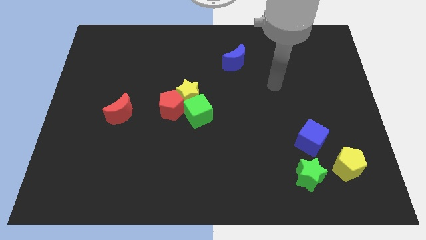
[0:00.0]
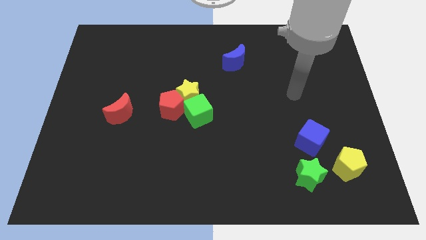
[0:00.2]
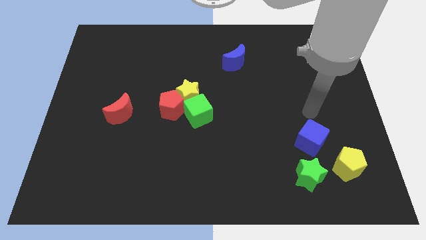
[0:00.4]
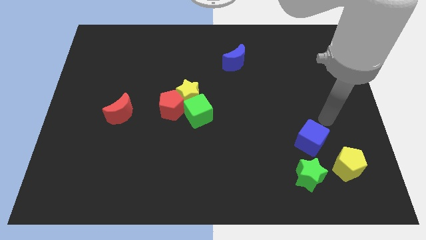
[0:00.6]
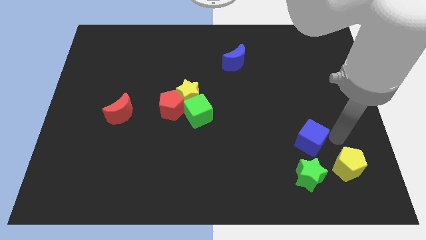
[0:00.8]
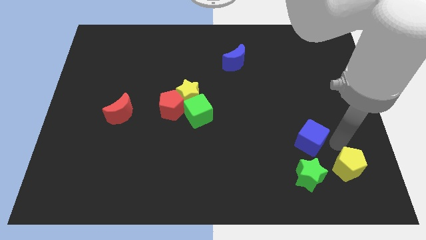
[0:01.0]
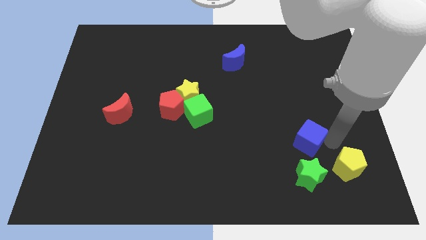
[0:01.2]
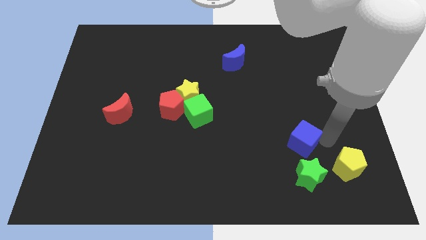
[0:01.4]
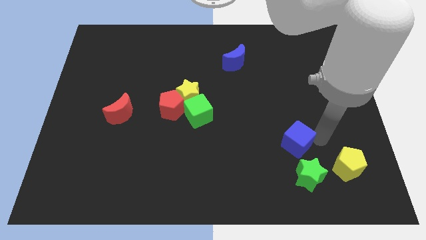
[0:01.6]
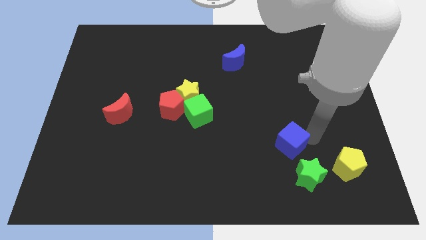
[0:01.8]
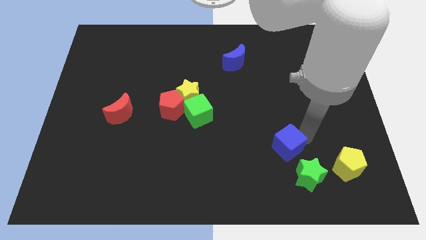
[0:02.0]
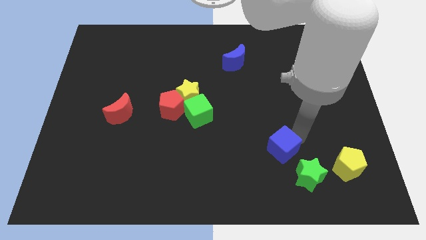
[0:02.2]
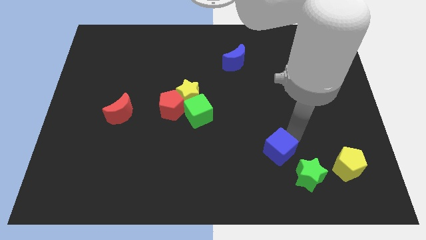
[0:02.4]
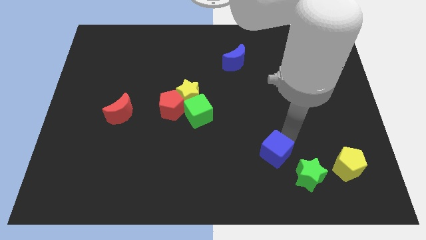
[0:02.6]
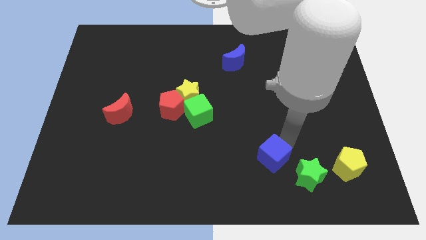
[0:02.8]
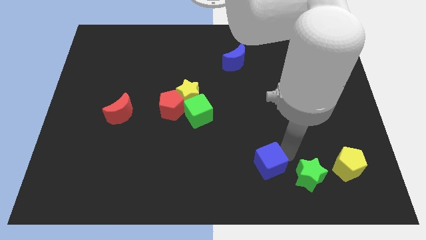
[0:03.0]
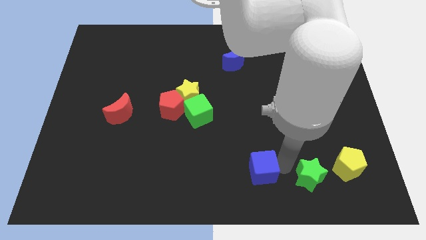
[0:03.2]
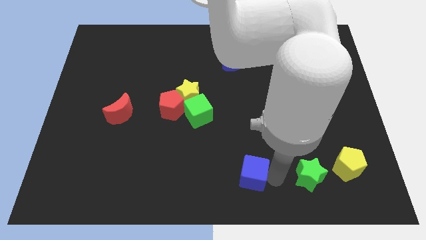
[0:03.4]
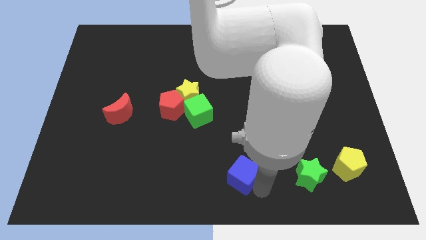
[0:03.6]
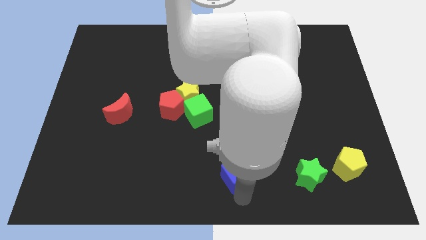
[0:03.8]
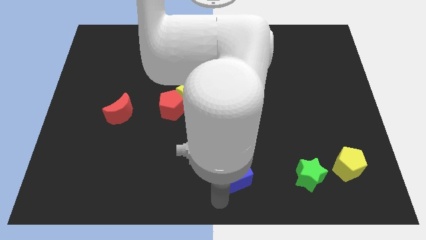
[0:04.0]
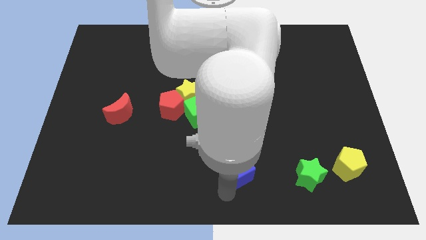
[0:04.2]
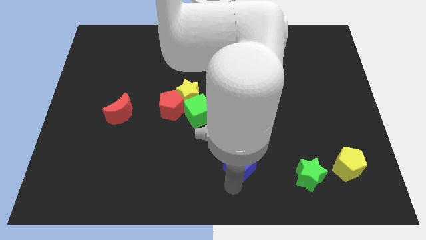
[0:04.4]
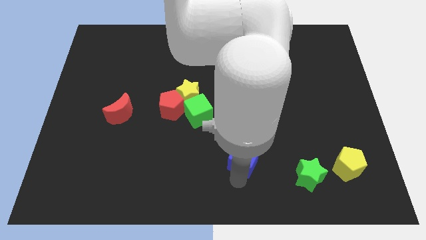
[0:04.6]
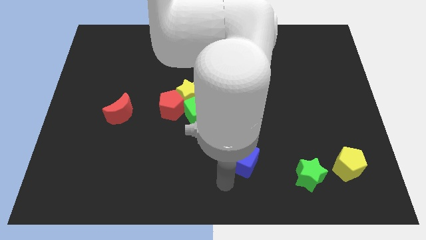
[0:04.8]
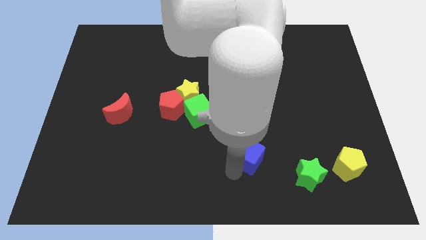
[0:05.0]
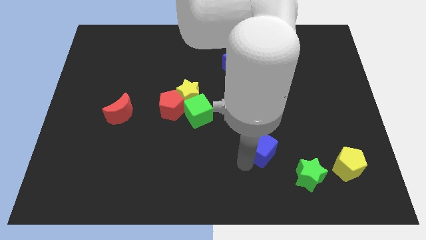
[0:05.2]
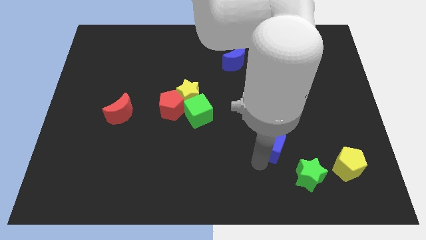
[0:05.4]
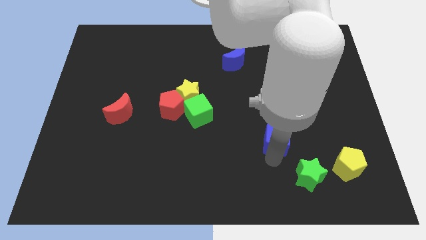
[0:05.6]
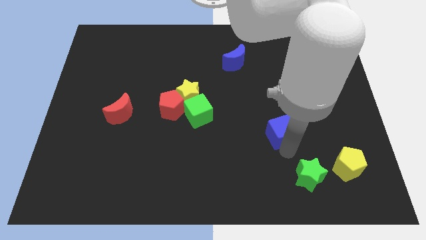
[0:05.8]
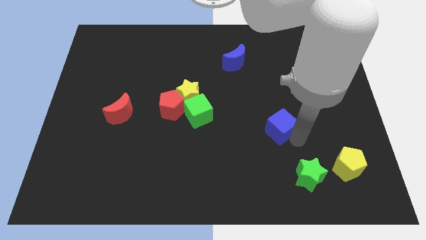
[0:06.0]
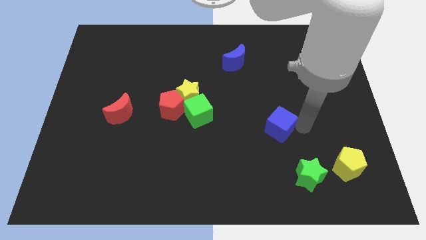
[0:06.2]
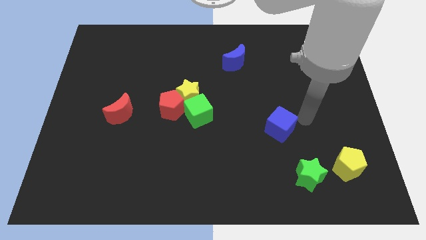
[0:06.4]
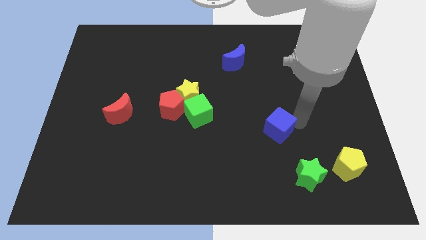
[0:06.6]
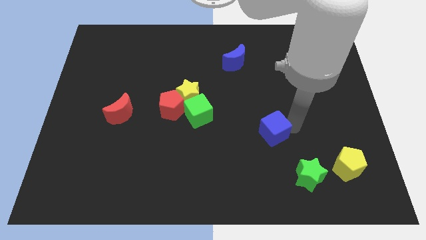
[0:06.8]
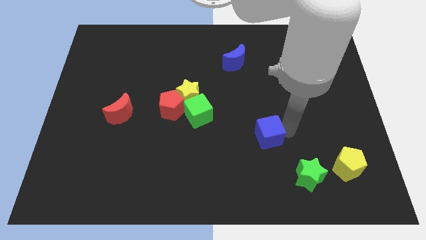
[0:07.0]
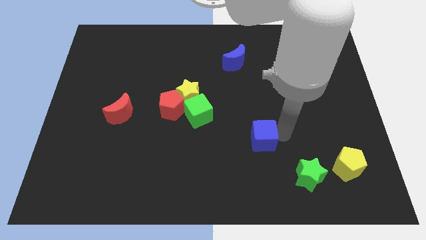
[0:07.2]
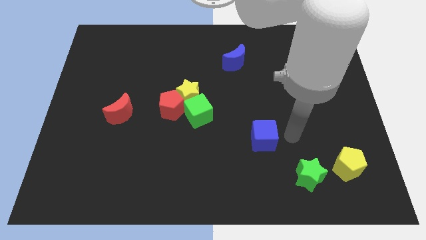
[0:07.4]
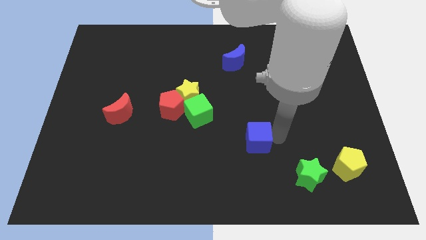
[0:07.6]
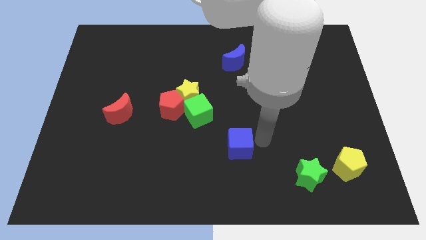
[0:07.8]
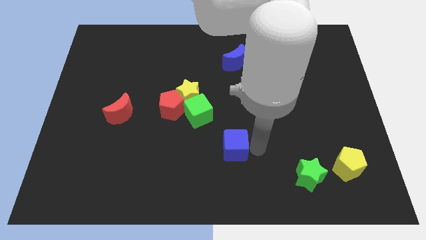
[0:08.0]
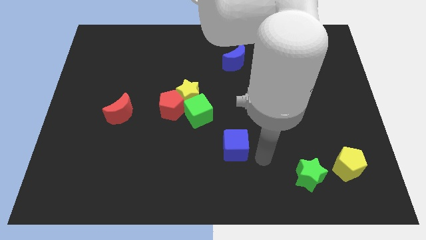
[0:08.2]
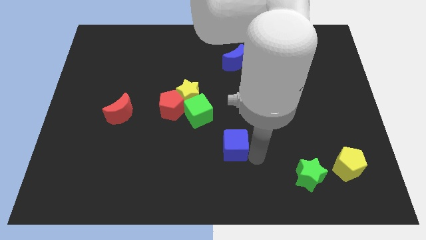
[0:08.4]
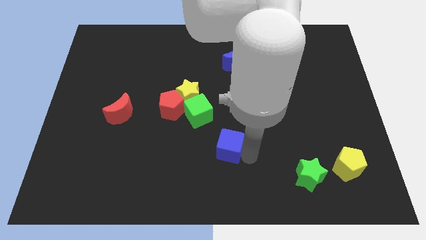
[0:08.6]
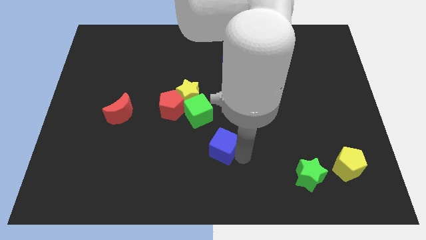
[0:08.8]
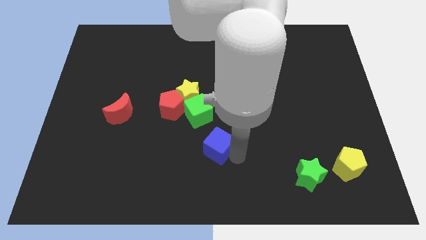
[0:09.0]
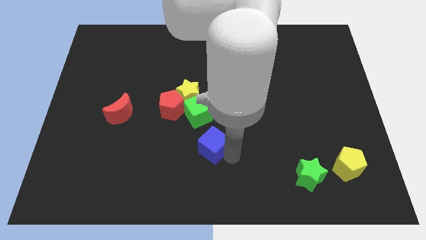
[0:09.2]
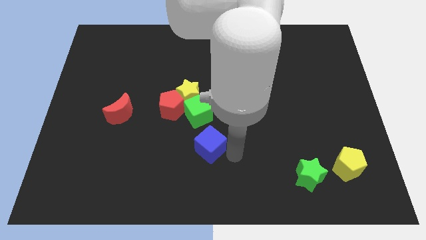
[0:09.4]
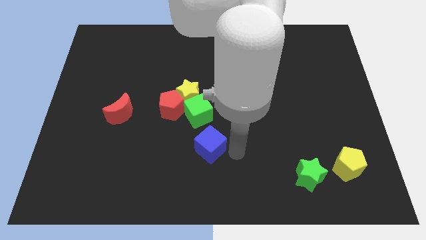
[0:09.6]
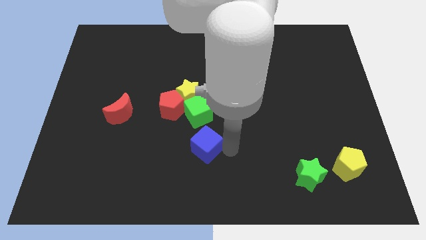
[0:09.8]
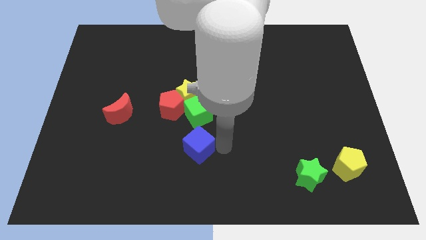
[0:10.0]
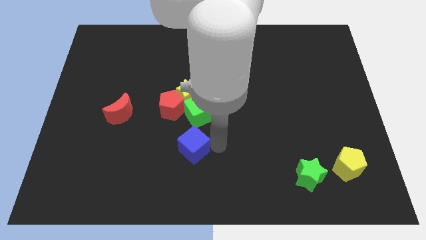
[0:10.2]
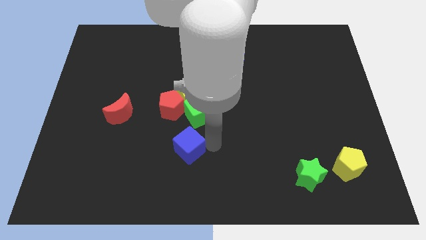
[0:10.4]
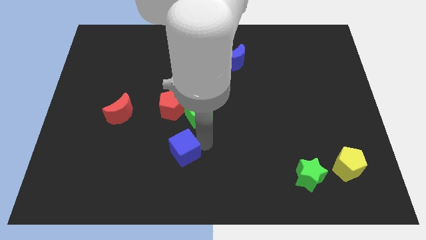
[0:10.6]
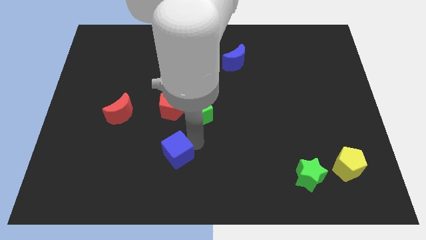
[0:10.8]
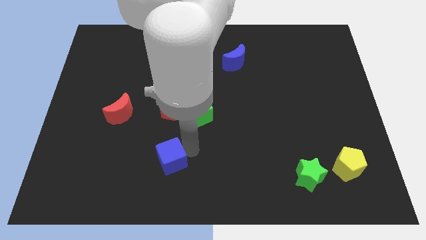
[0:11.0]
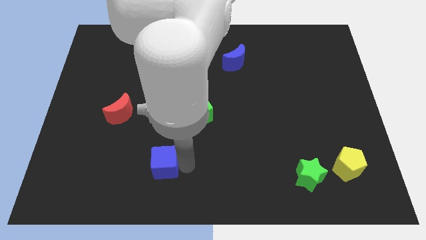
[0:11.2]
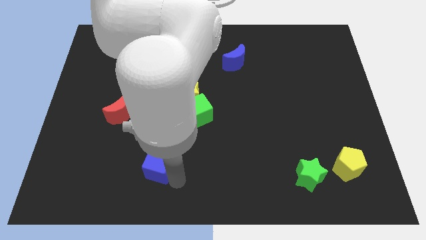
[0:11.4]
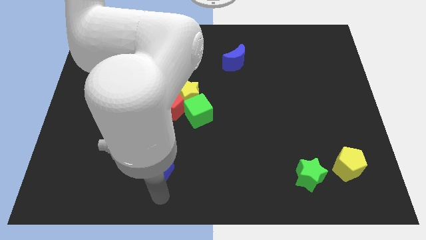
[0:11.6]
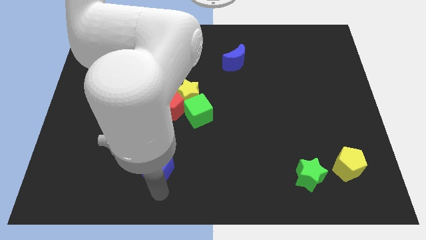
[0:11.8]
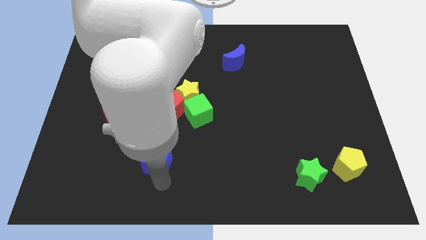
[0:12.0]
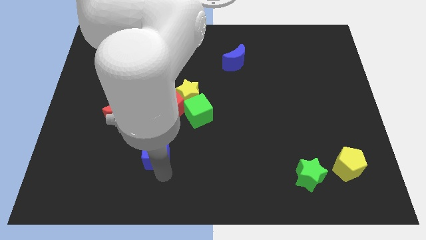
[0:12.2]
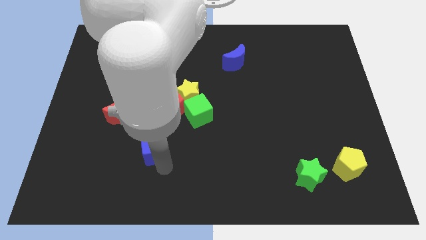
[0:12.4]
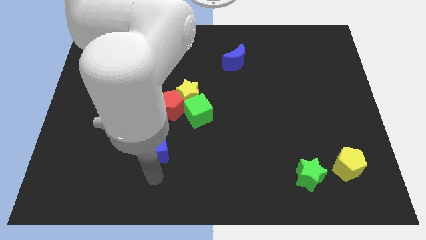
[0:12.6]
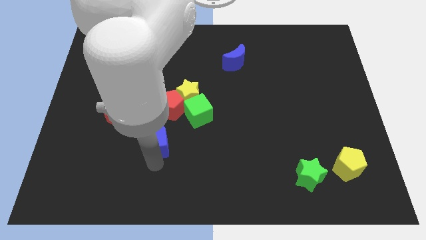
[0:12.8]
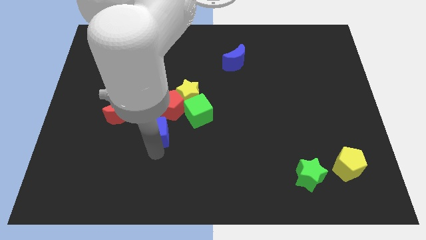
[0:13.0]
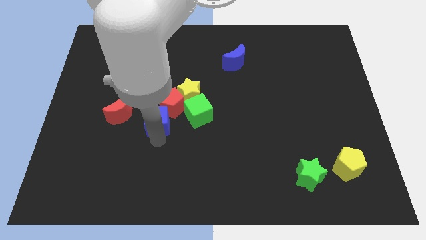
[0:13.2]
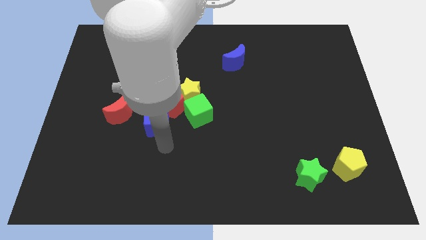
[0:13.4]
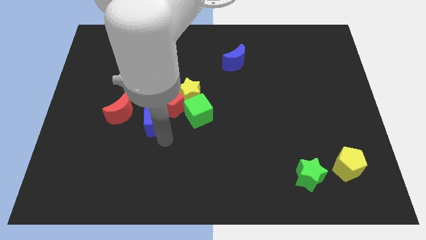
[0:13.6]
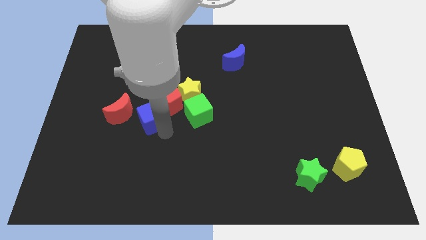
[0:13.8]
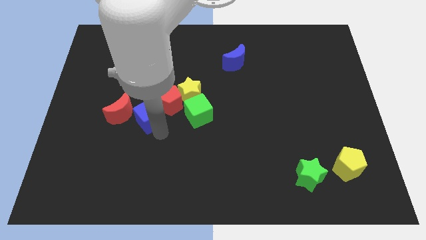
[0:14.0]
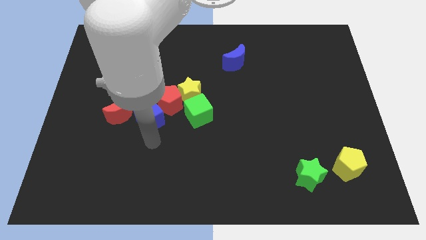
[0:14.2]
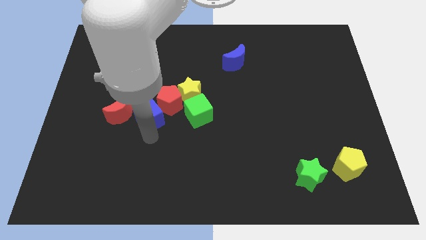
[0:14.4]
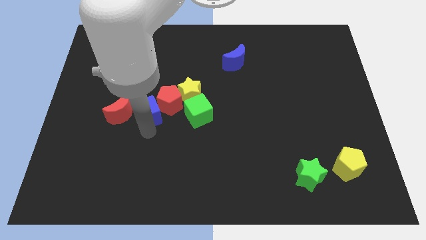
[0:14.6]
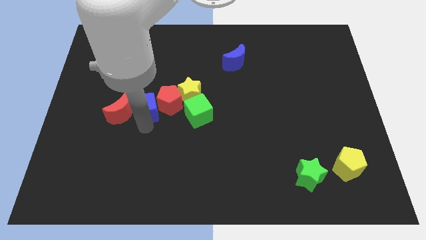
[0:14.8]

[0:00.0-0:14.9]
put the blue cube just left of the yellow star
